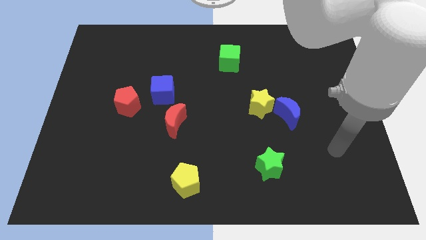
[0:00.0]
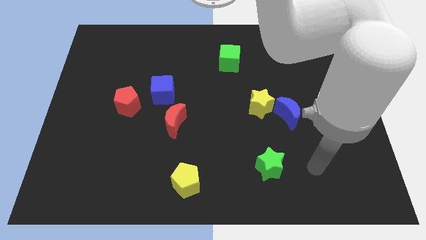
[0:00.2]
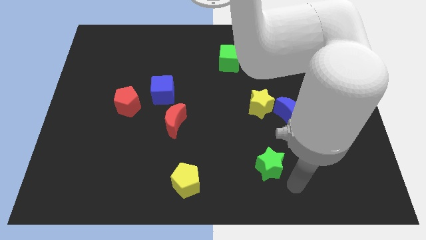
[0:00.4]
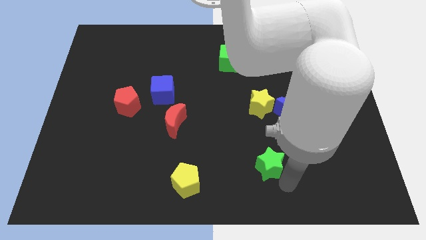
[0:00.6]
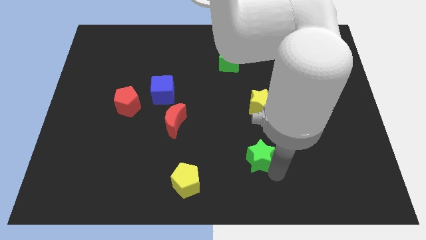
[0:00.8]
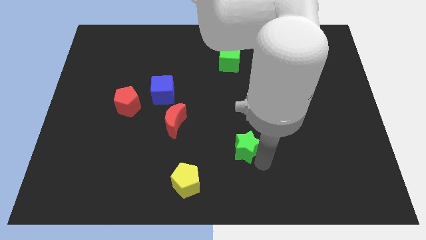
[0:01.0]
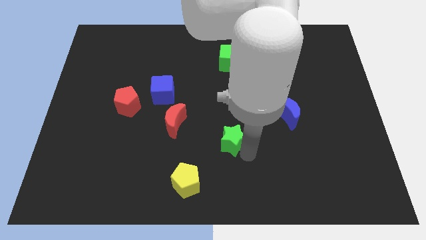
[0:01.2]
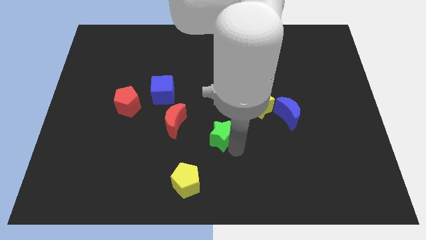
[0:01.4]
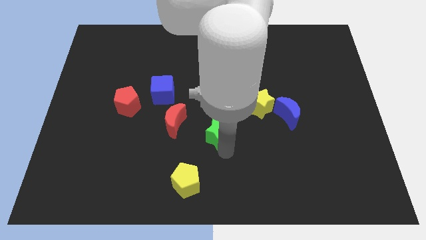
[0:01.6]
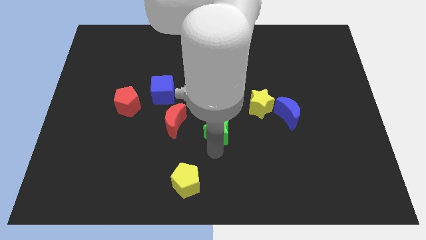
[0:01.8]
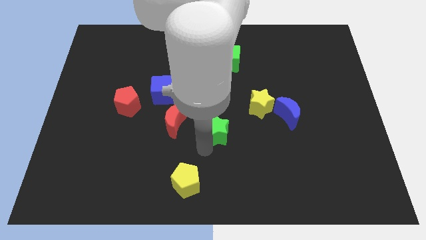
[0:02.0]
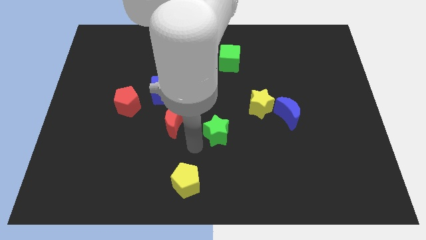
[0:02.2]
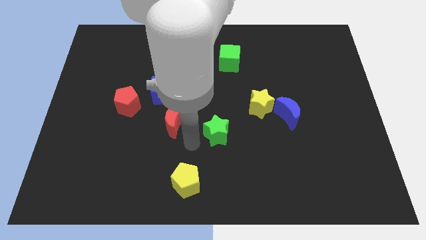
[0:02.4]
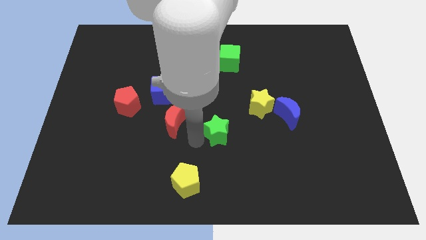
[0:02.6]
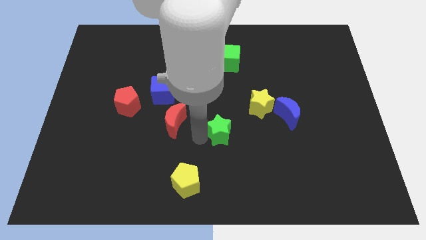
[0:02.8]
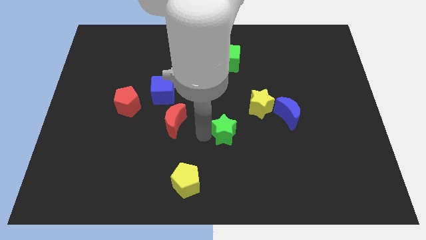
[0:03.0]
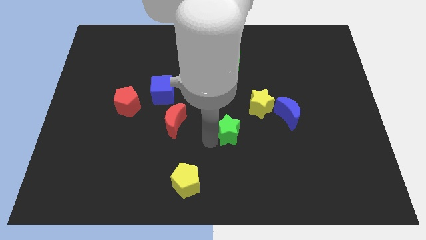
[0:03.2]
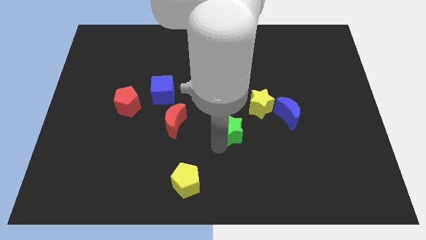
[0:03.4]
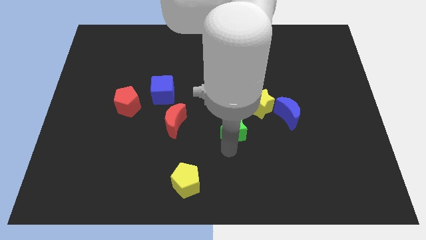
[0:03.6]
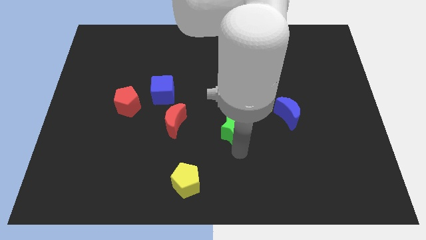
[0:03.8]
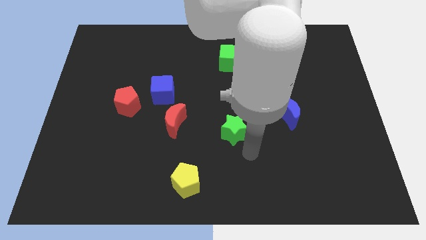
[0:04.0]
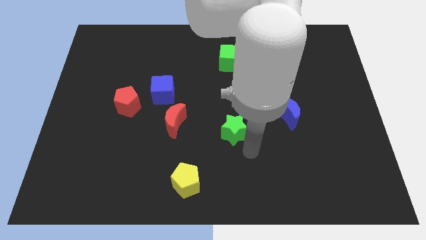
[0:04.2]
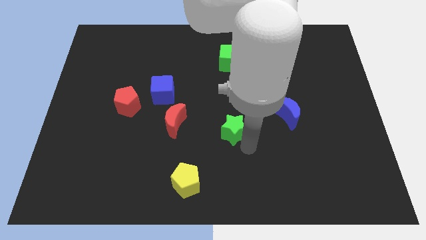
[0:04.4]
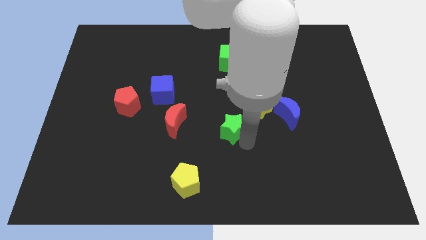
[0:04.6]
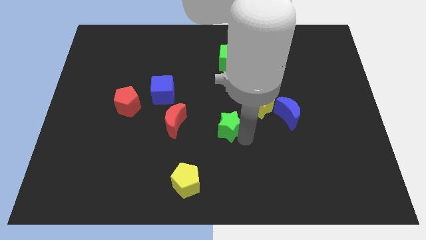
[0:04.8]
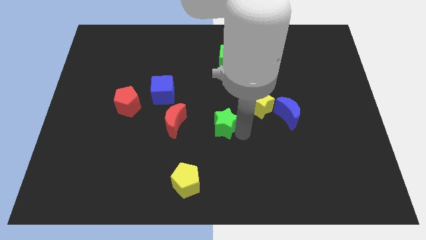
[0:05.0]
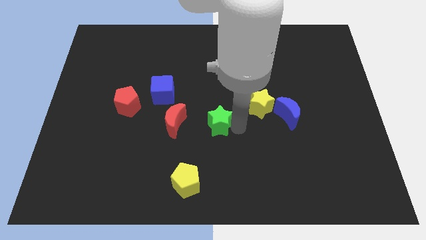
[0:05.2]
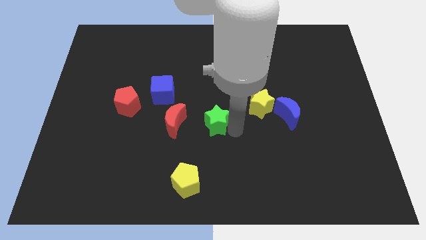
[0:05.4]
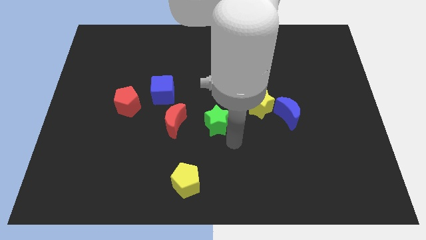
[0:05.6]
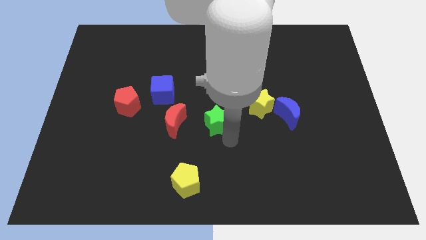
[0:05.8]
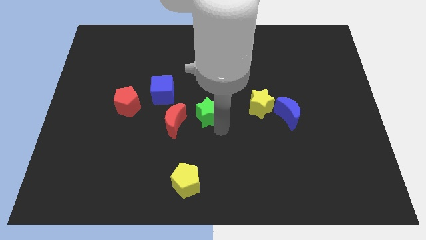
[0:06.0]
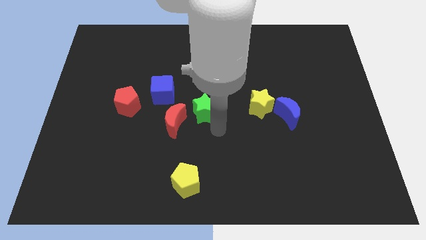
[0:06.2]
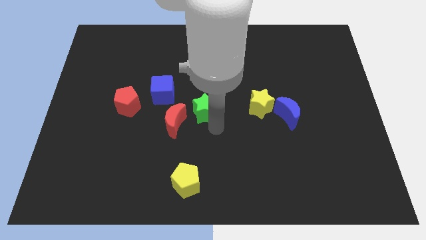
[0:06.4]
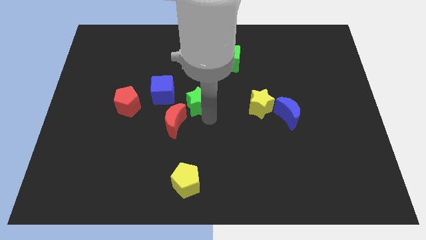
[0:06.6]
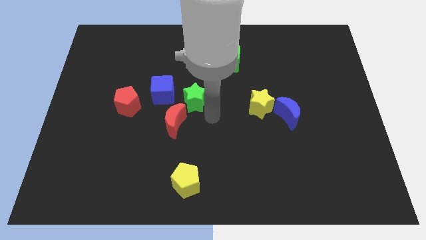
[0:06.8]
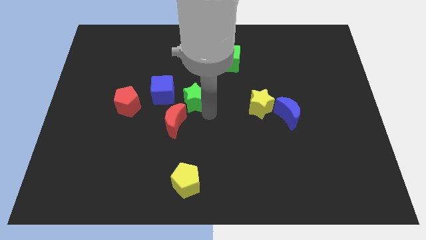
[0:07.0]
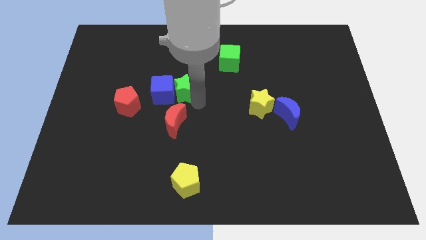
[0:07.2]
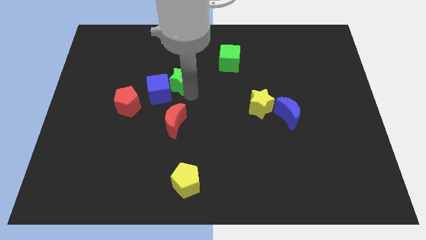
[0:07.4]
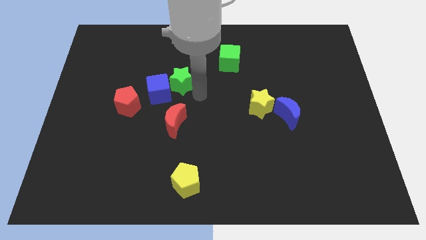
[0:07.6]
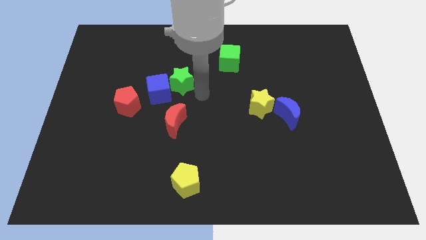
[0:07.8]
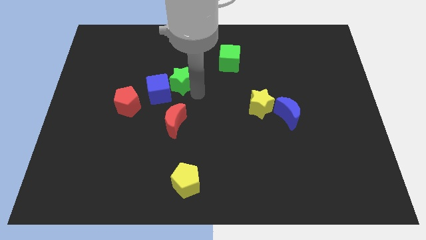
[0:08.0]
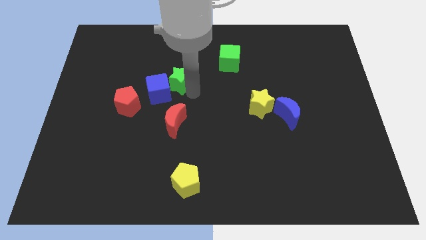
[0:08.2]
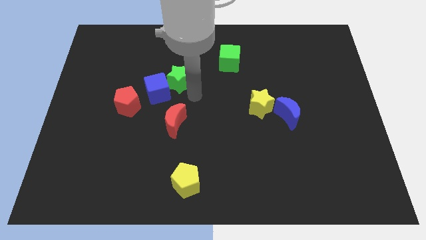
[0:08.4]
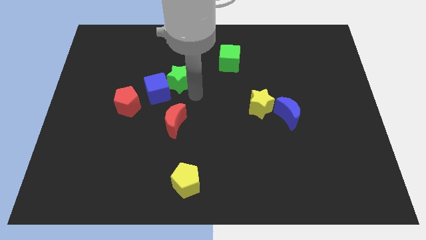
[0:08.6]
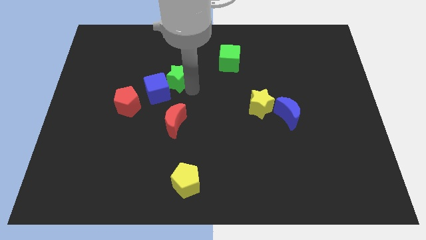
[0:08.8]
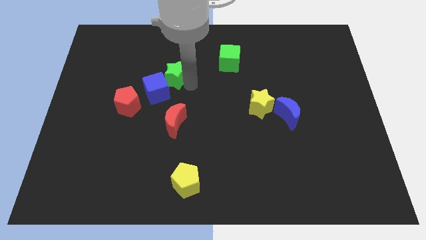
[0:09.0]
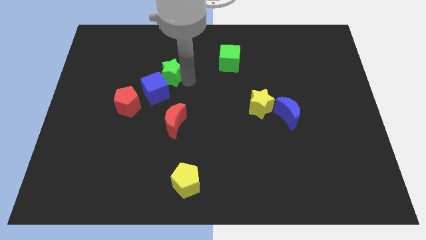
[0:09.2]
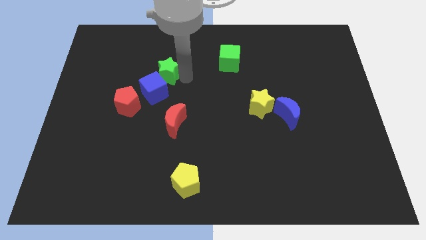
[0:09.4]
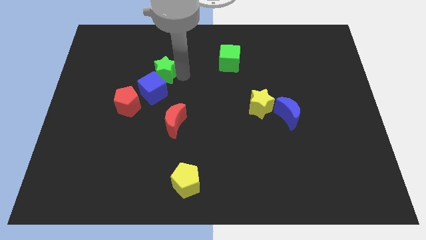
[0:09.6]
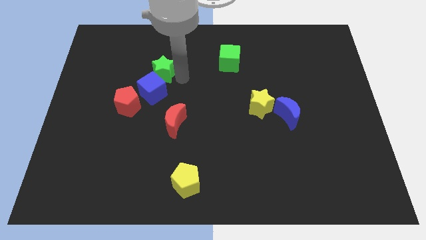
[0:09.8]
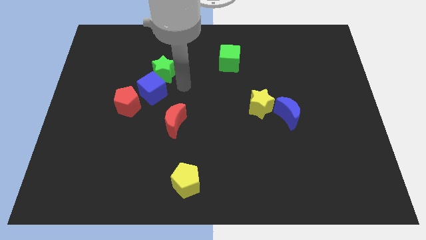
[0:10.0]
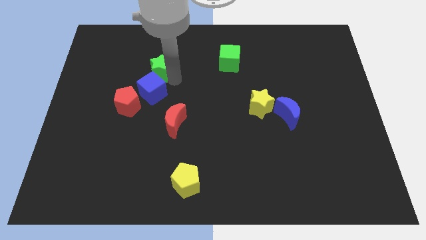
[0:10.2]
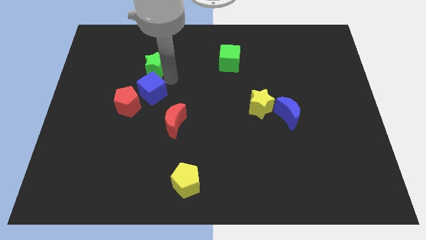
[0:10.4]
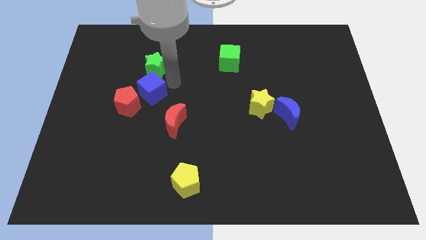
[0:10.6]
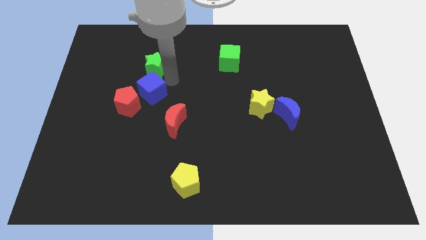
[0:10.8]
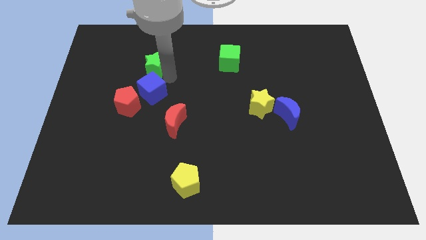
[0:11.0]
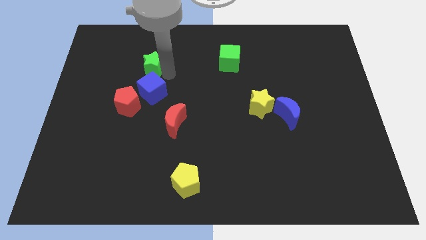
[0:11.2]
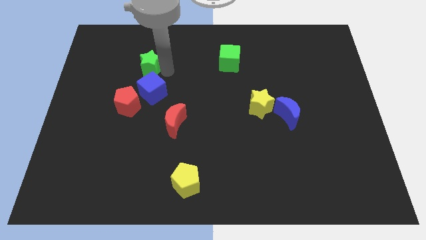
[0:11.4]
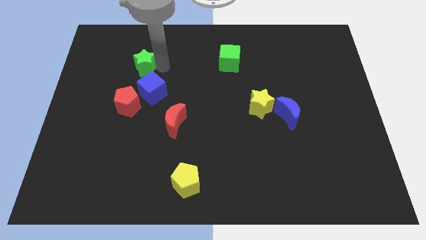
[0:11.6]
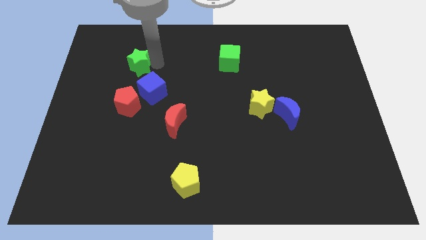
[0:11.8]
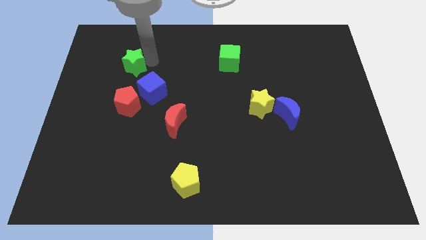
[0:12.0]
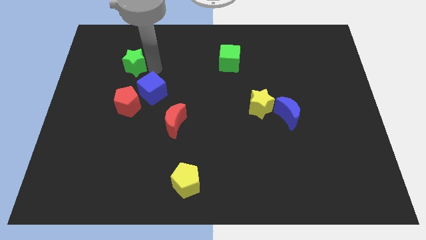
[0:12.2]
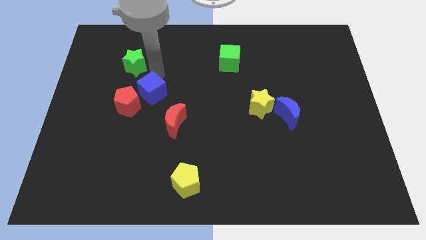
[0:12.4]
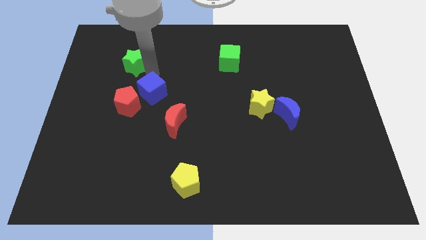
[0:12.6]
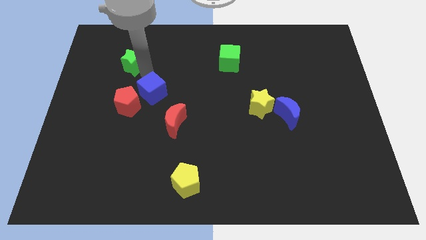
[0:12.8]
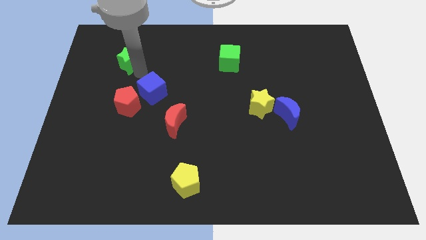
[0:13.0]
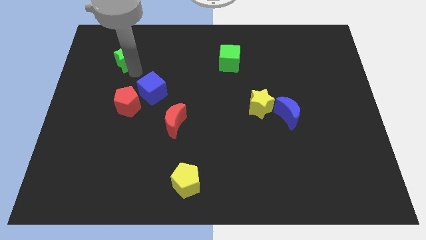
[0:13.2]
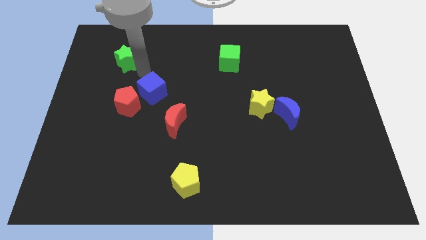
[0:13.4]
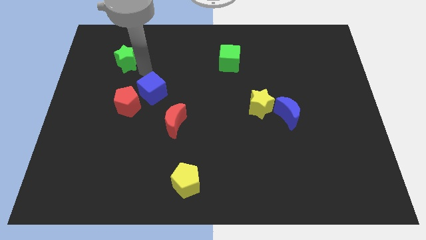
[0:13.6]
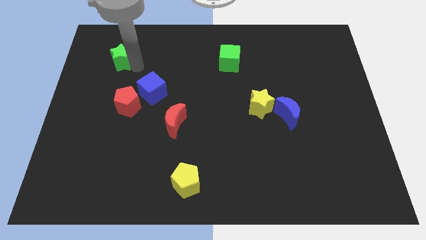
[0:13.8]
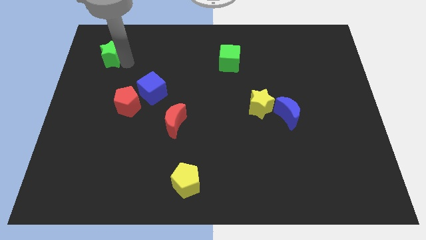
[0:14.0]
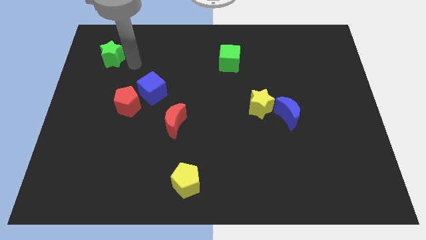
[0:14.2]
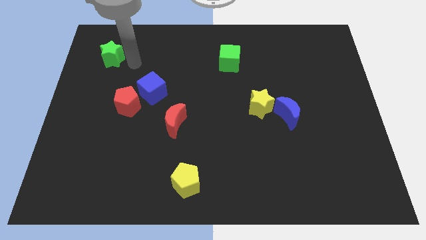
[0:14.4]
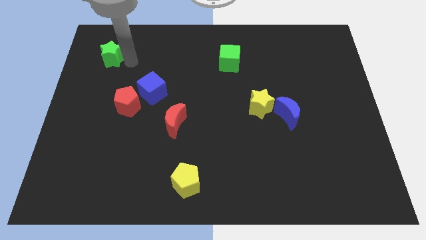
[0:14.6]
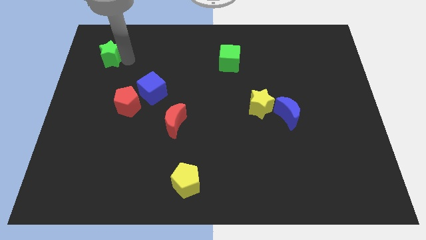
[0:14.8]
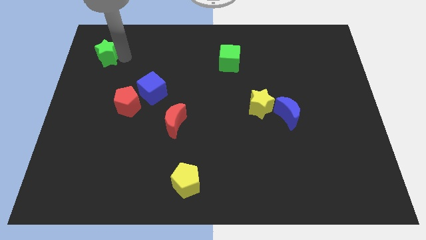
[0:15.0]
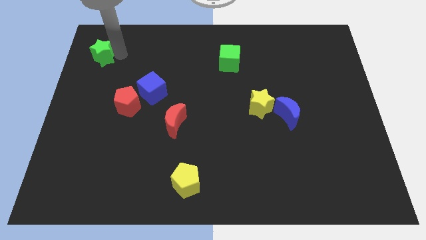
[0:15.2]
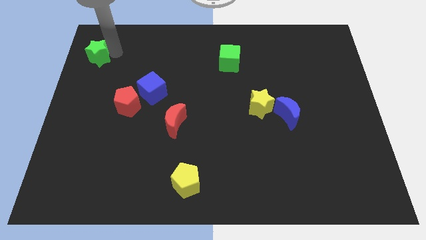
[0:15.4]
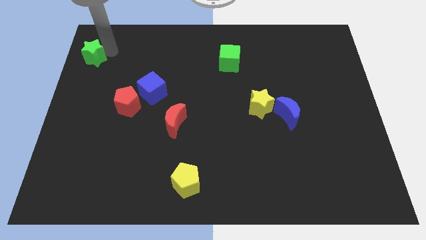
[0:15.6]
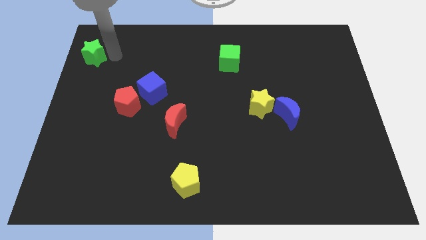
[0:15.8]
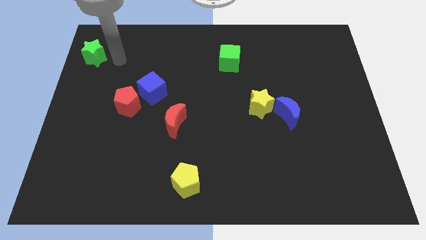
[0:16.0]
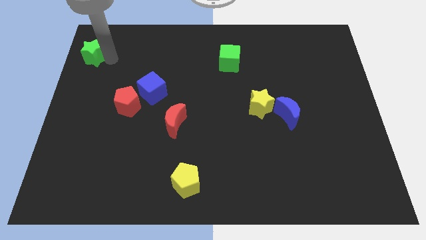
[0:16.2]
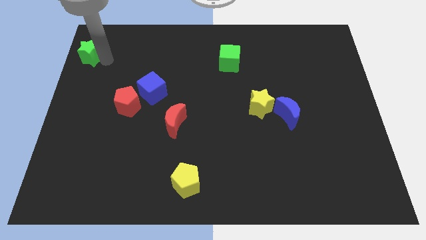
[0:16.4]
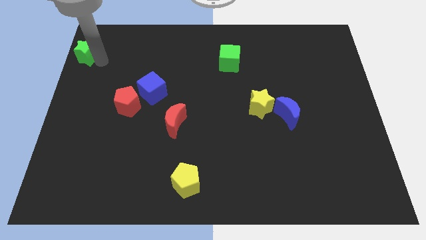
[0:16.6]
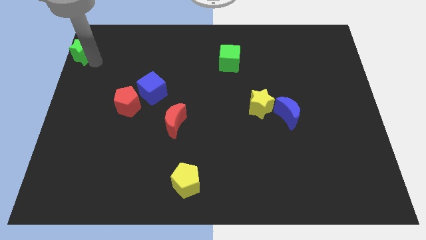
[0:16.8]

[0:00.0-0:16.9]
push the green star to the top left
